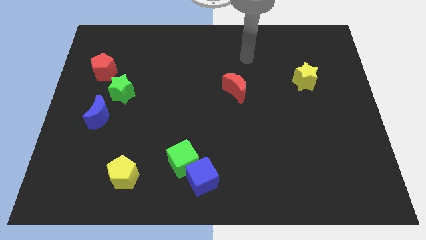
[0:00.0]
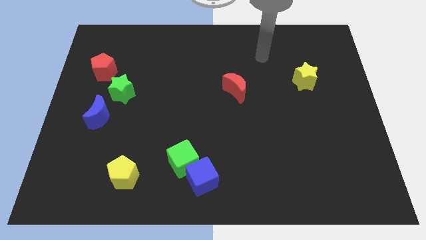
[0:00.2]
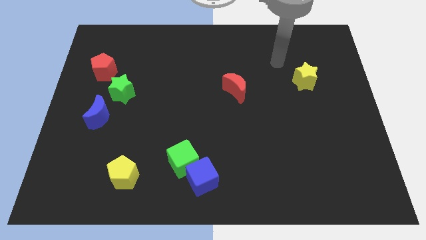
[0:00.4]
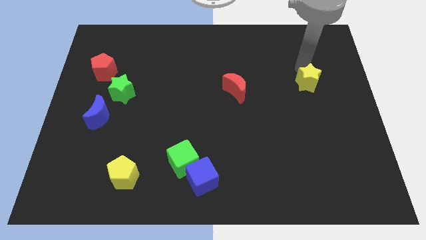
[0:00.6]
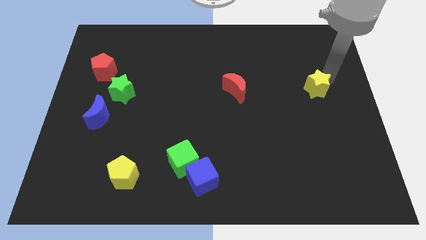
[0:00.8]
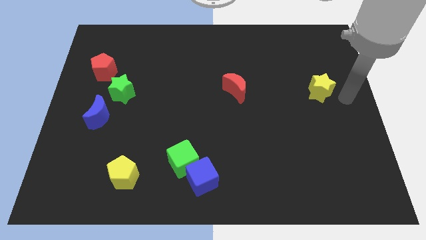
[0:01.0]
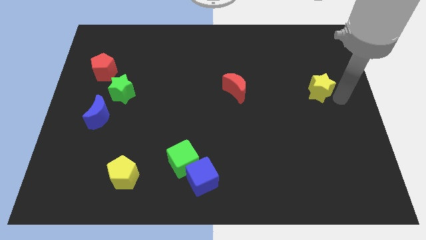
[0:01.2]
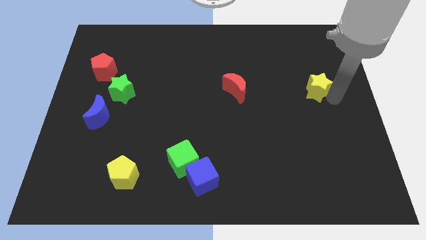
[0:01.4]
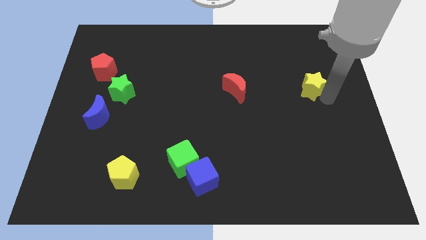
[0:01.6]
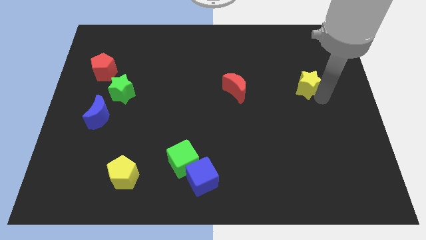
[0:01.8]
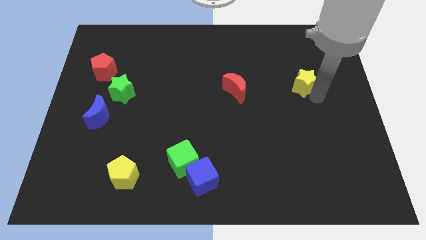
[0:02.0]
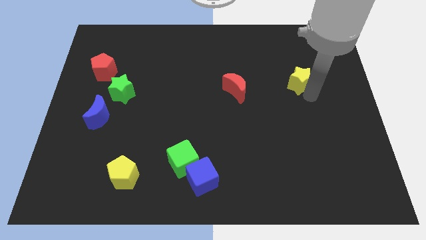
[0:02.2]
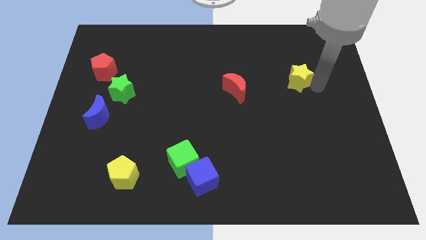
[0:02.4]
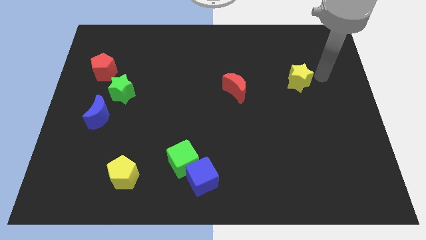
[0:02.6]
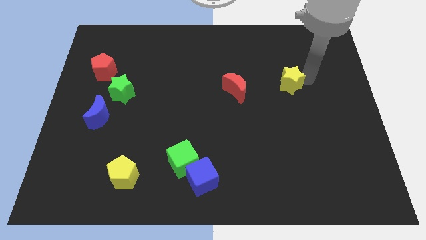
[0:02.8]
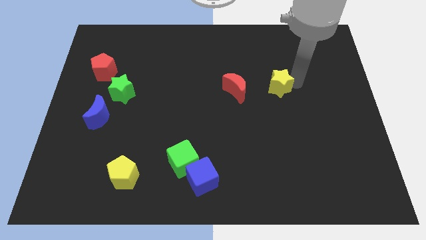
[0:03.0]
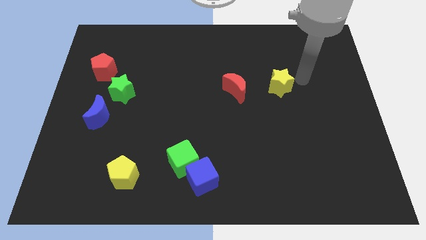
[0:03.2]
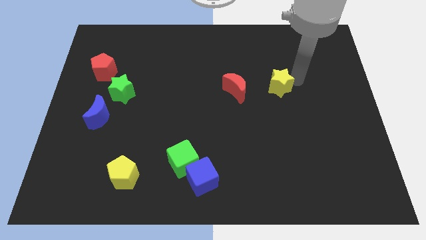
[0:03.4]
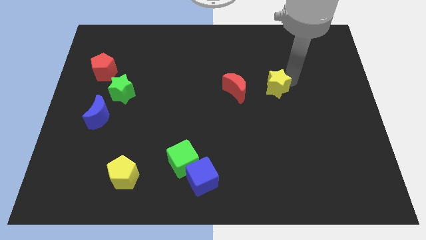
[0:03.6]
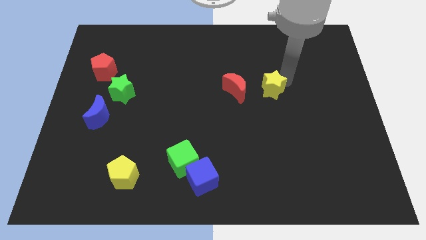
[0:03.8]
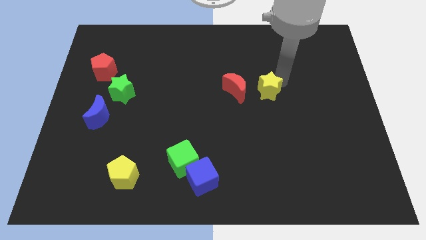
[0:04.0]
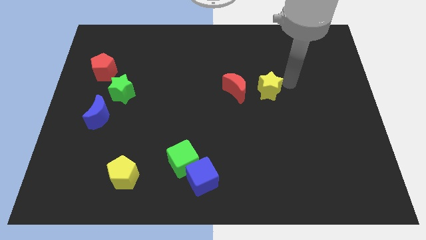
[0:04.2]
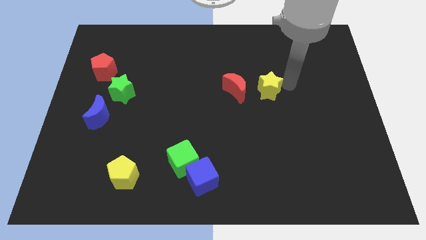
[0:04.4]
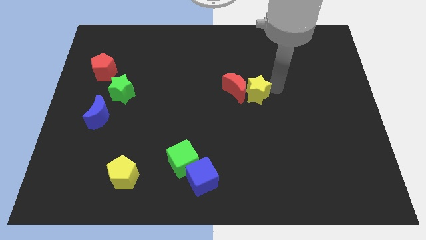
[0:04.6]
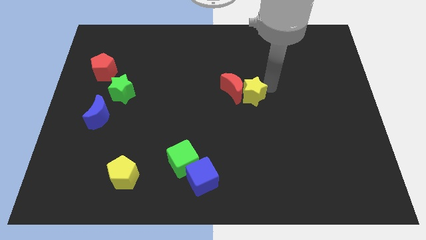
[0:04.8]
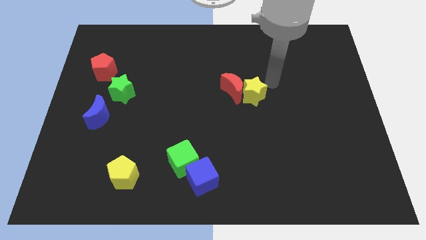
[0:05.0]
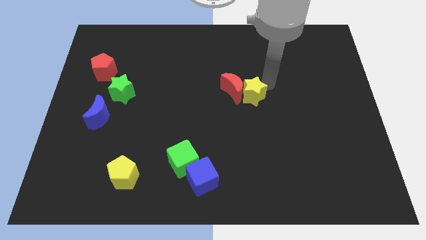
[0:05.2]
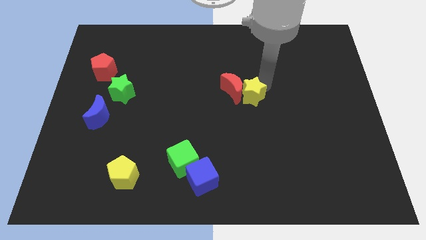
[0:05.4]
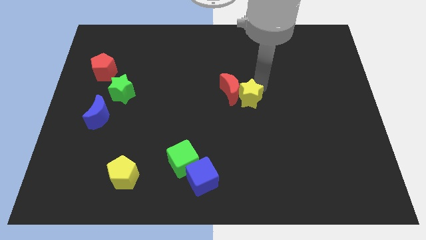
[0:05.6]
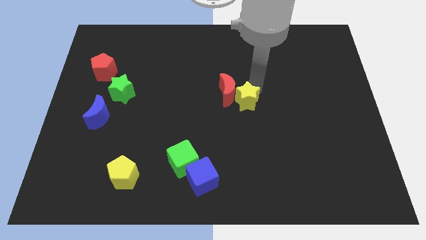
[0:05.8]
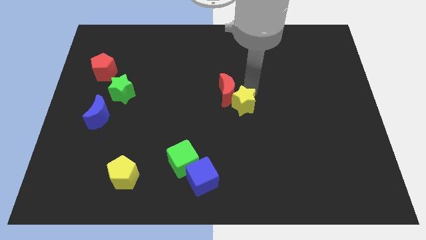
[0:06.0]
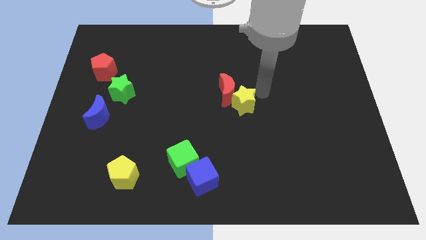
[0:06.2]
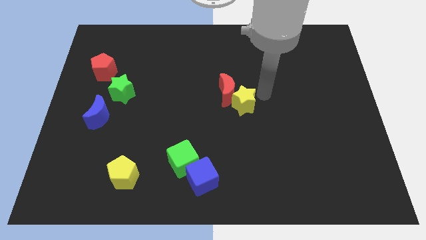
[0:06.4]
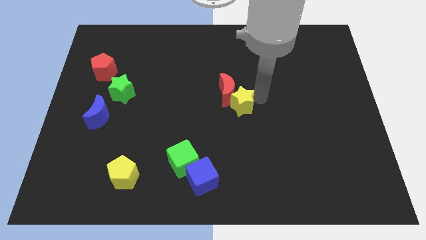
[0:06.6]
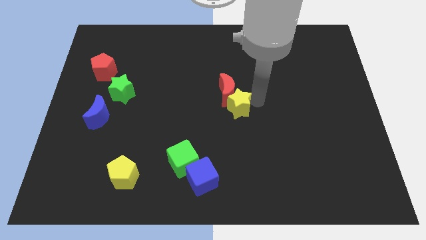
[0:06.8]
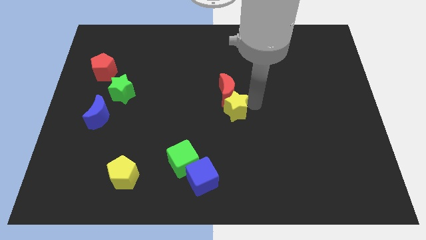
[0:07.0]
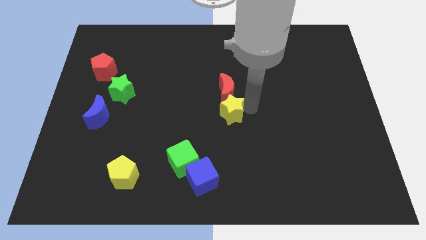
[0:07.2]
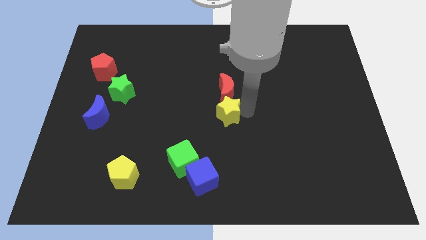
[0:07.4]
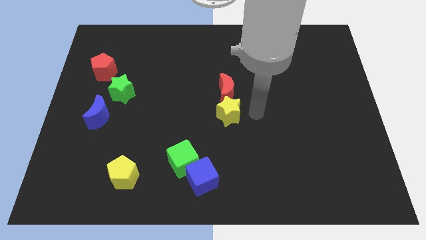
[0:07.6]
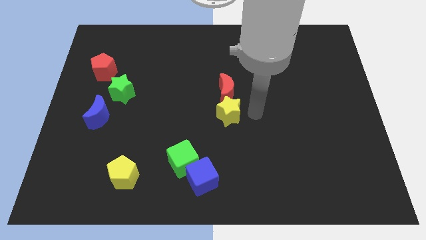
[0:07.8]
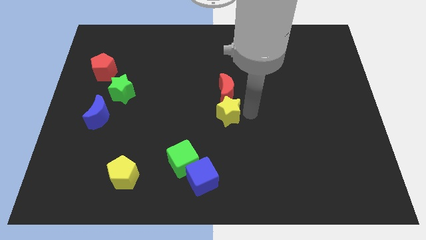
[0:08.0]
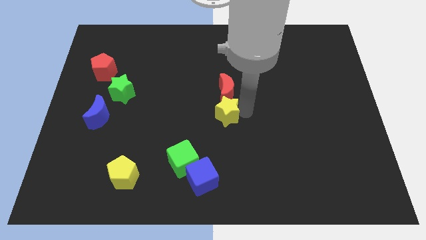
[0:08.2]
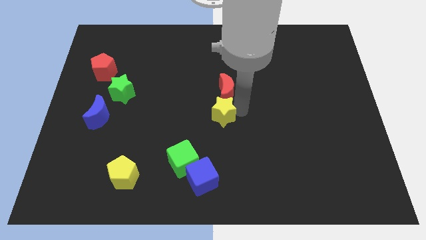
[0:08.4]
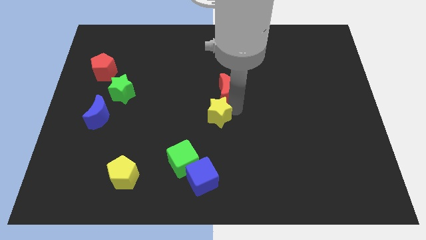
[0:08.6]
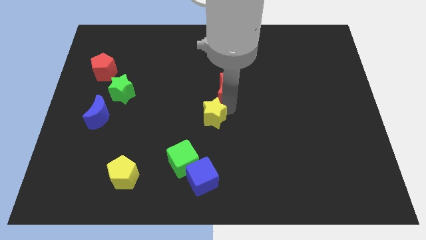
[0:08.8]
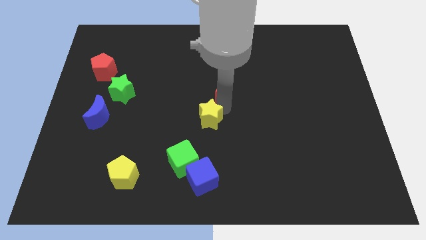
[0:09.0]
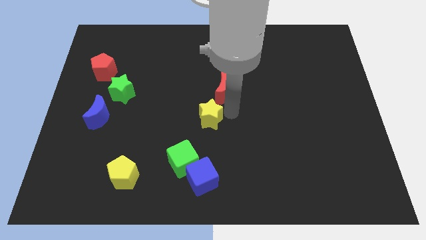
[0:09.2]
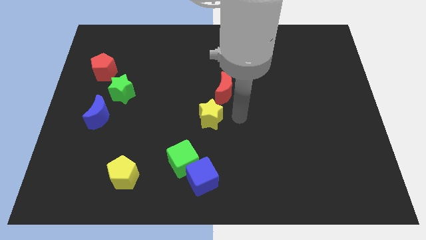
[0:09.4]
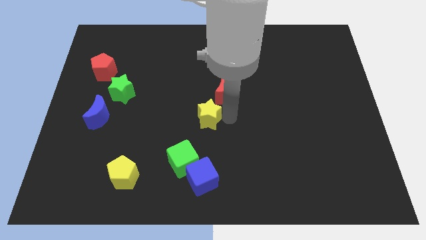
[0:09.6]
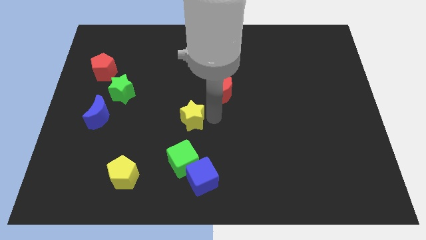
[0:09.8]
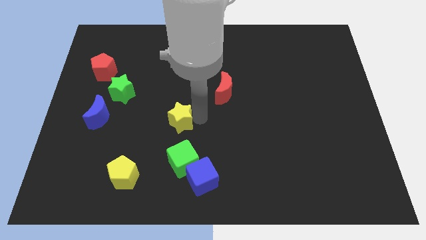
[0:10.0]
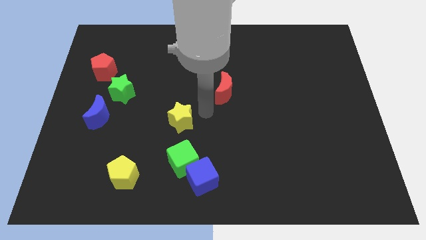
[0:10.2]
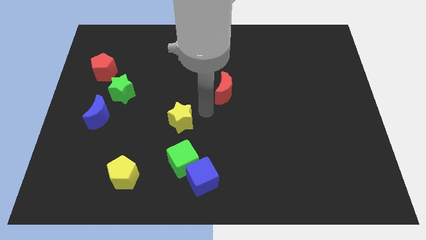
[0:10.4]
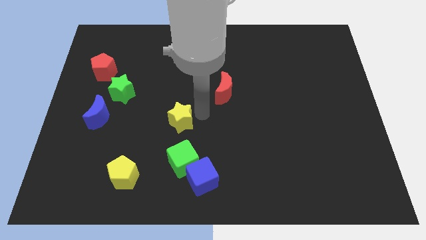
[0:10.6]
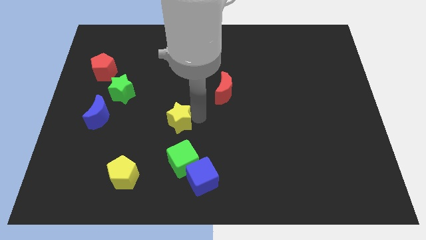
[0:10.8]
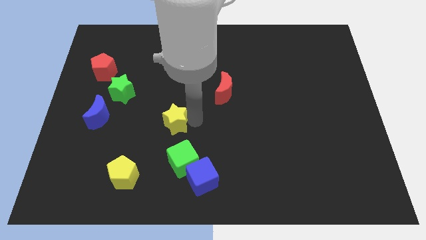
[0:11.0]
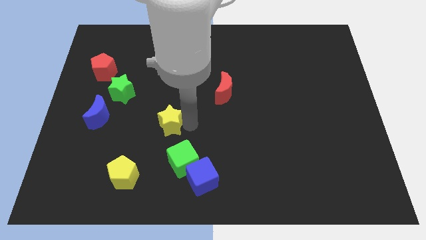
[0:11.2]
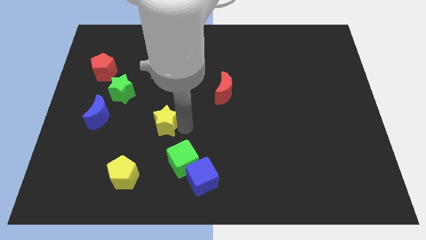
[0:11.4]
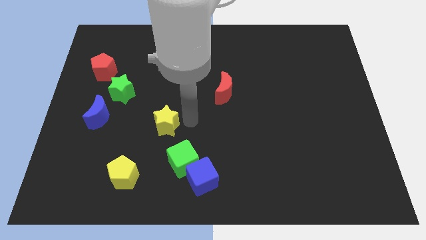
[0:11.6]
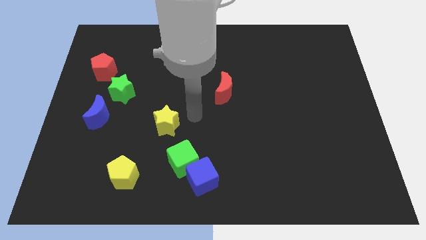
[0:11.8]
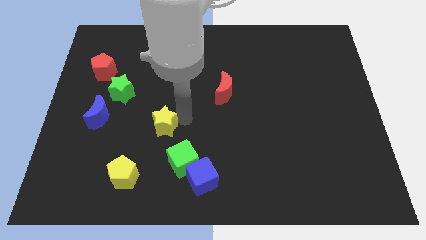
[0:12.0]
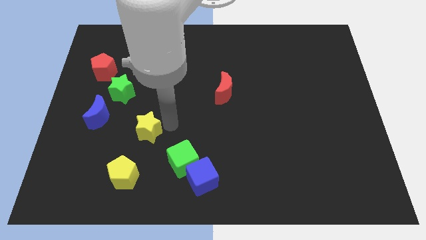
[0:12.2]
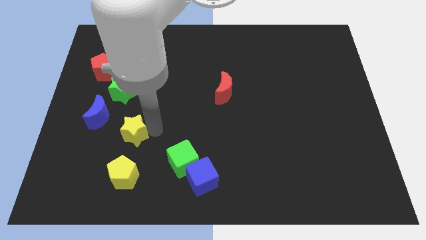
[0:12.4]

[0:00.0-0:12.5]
move the yellow star to the bottom right of the blue moon
